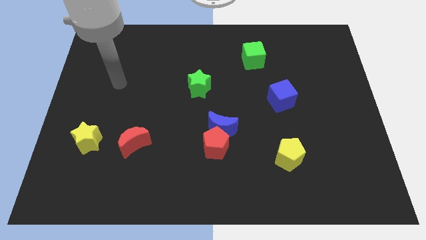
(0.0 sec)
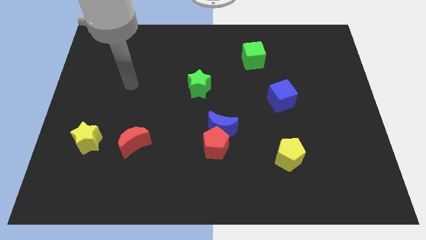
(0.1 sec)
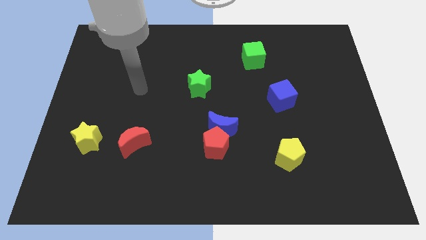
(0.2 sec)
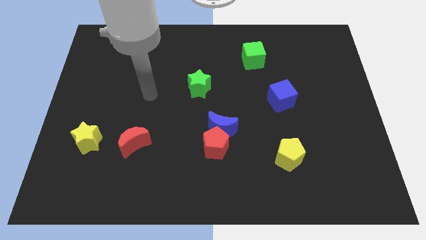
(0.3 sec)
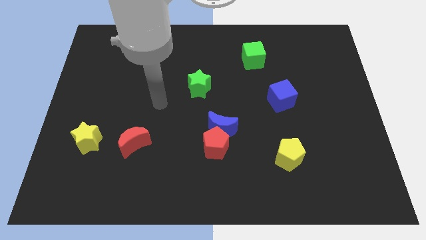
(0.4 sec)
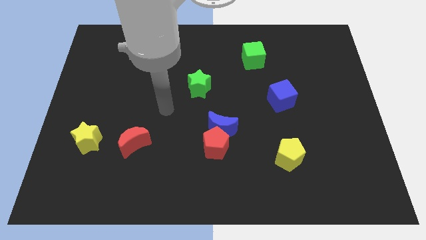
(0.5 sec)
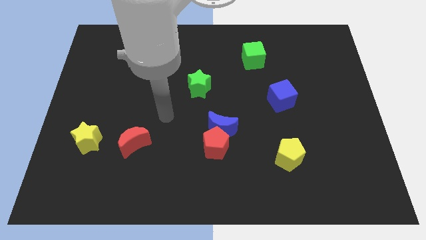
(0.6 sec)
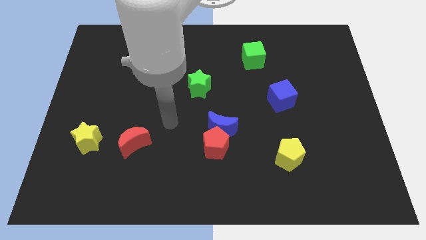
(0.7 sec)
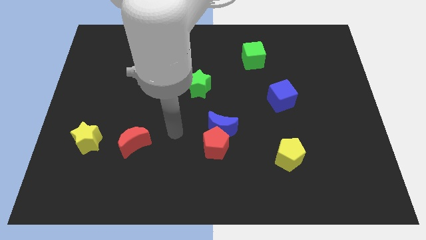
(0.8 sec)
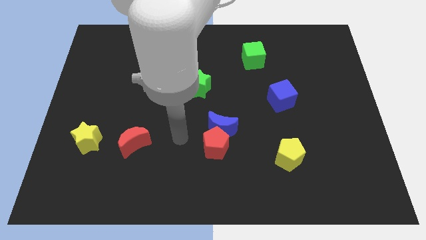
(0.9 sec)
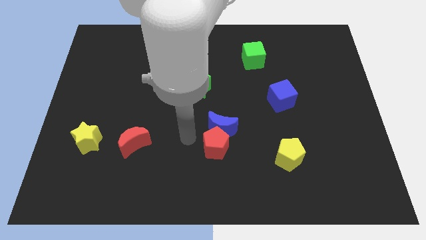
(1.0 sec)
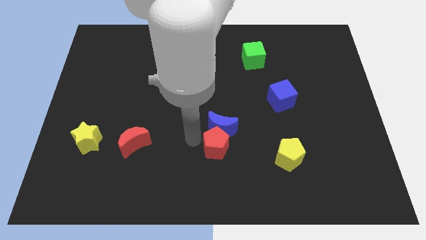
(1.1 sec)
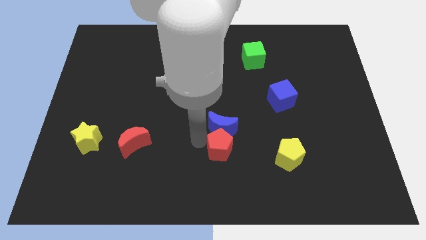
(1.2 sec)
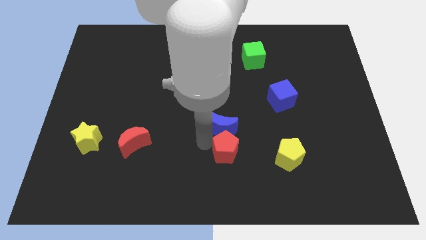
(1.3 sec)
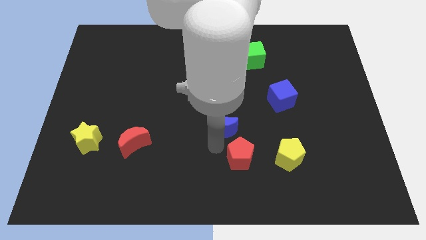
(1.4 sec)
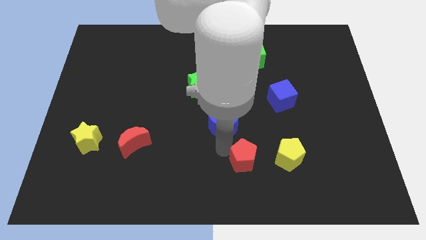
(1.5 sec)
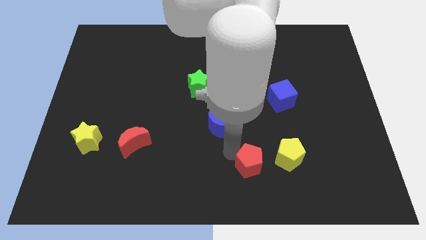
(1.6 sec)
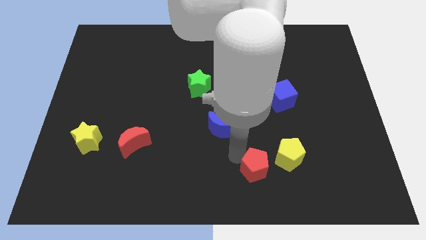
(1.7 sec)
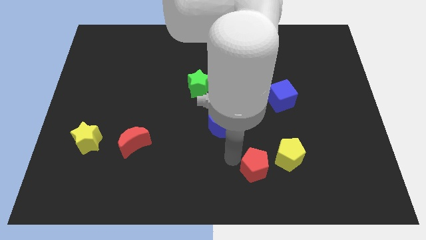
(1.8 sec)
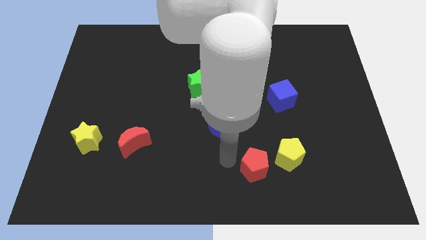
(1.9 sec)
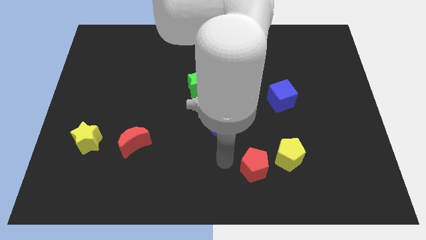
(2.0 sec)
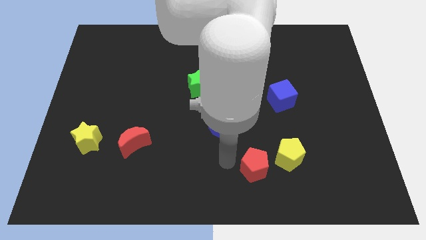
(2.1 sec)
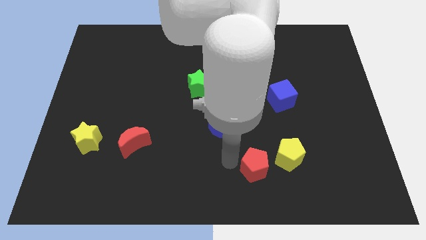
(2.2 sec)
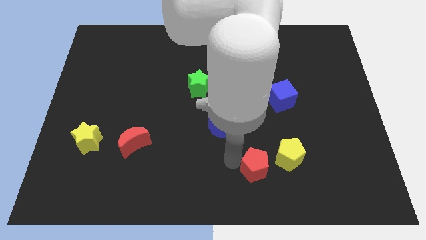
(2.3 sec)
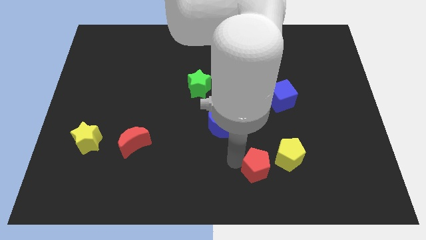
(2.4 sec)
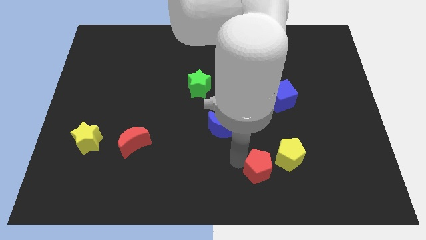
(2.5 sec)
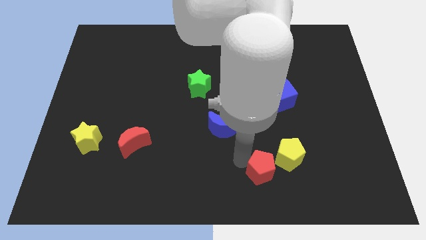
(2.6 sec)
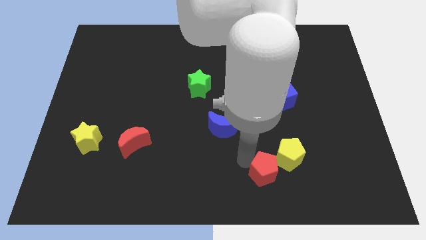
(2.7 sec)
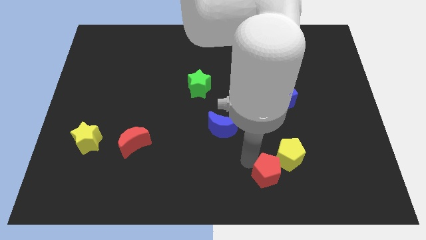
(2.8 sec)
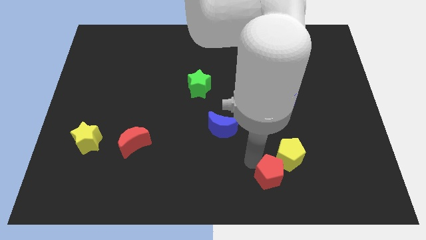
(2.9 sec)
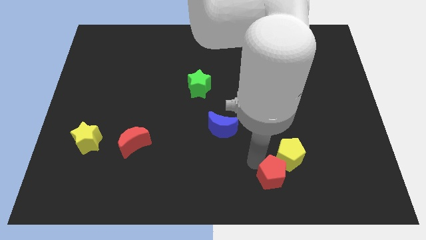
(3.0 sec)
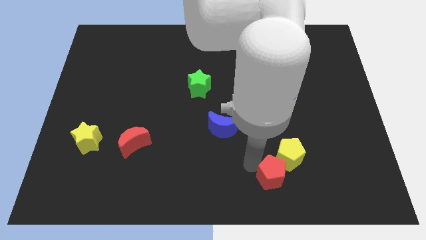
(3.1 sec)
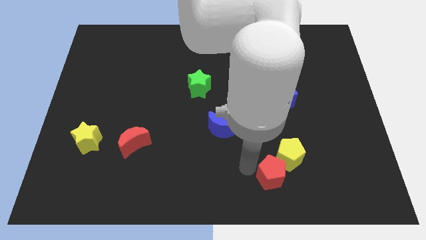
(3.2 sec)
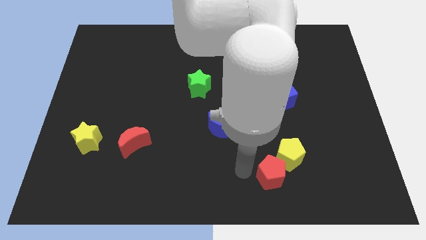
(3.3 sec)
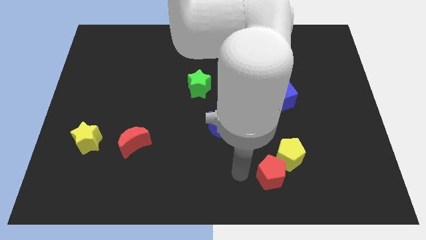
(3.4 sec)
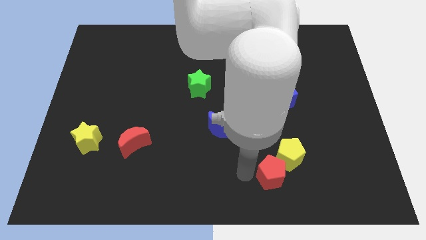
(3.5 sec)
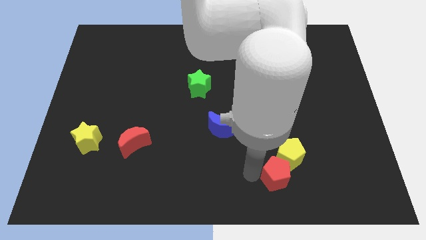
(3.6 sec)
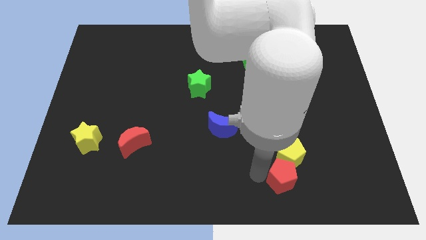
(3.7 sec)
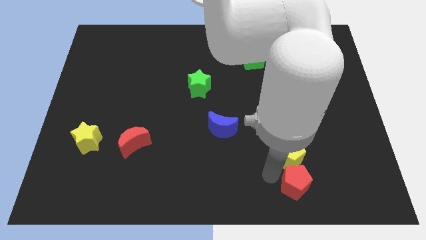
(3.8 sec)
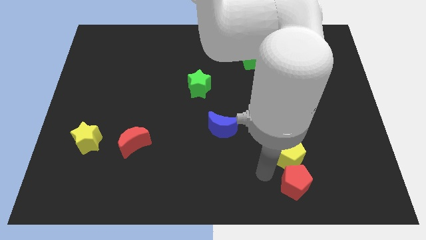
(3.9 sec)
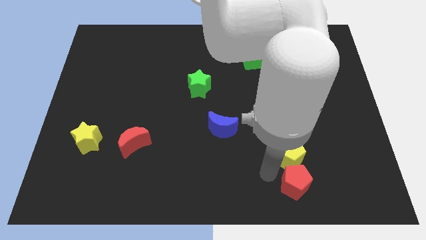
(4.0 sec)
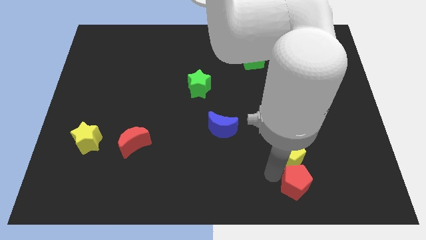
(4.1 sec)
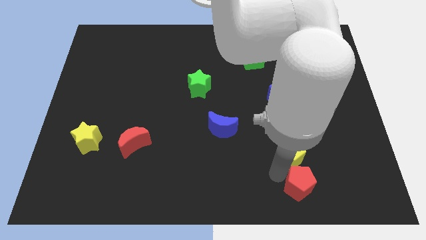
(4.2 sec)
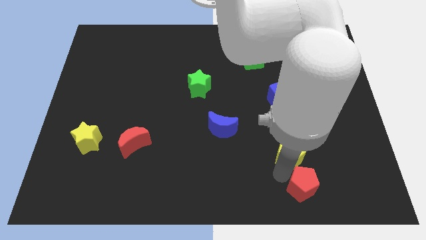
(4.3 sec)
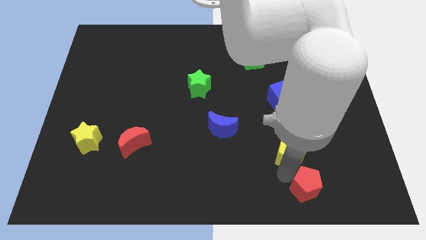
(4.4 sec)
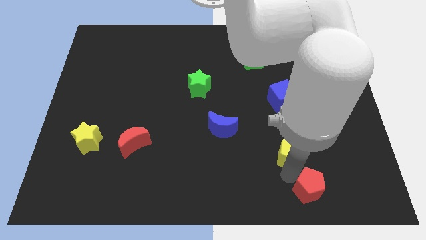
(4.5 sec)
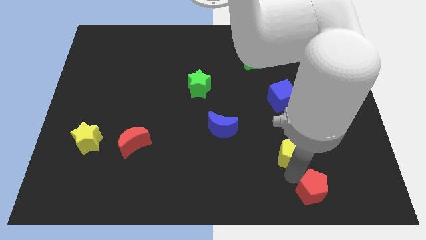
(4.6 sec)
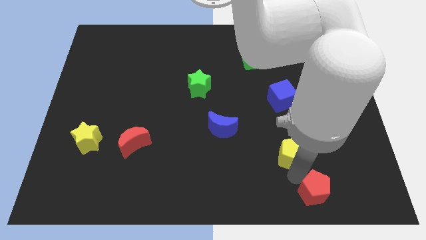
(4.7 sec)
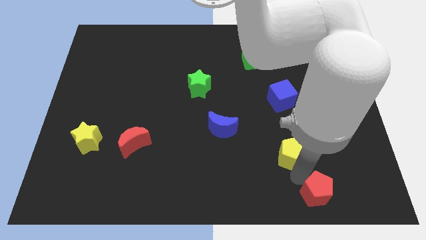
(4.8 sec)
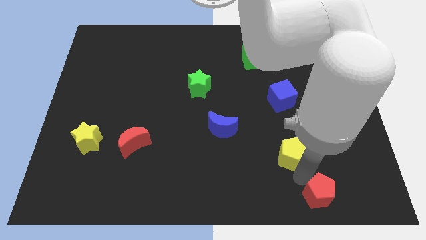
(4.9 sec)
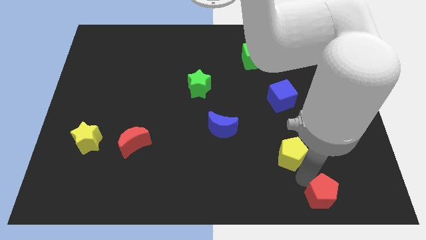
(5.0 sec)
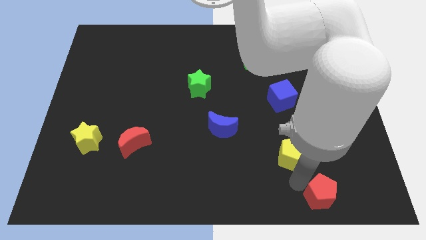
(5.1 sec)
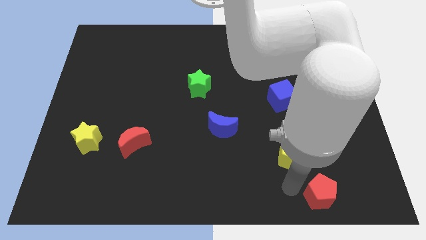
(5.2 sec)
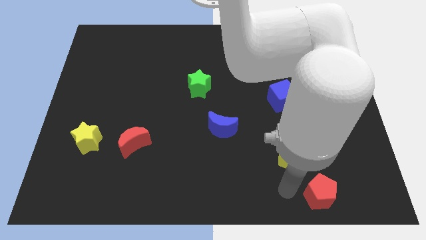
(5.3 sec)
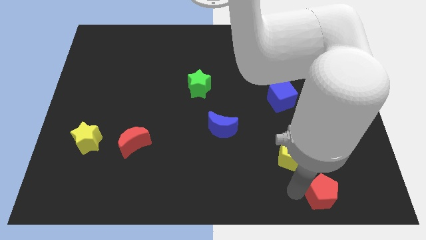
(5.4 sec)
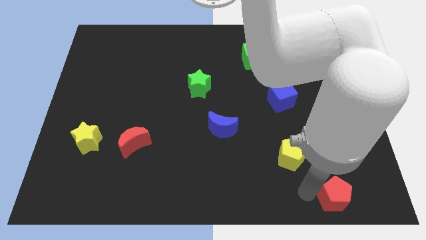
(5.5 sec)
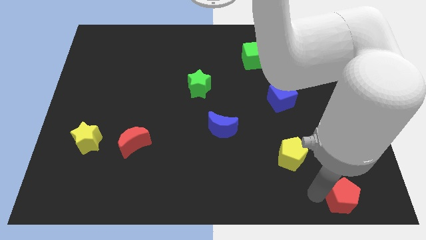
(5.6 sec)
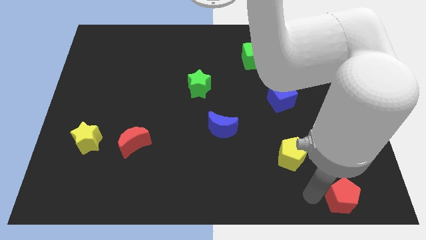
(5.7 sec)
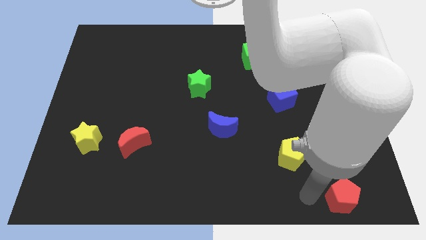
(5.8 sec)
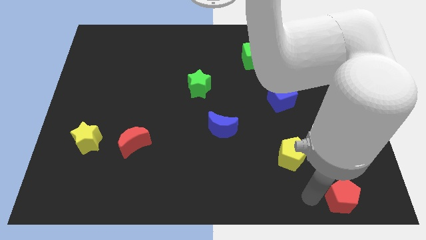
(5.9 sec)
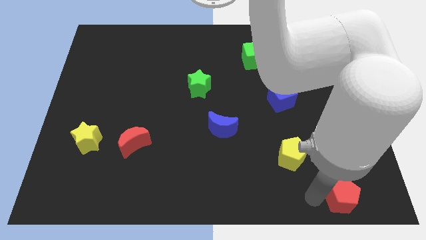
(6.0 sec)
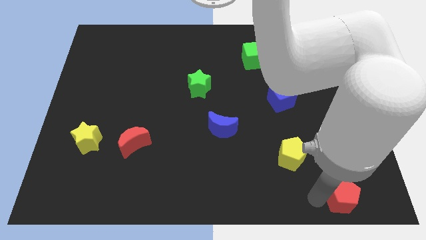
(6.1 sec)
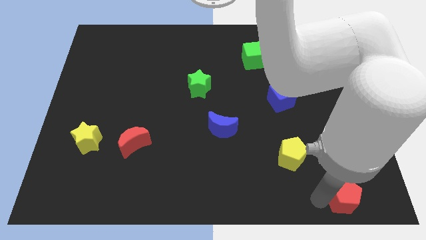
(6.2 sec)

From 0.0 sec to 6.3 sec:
slide the red pentagon to the bottom right

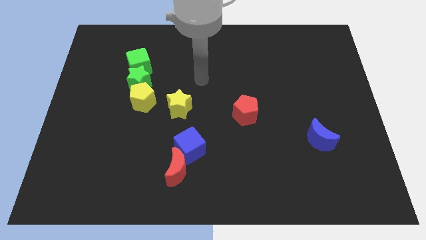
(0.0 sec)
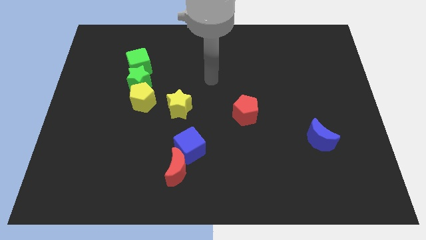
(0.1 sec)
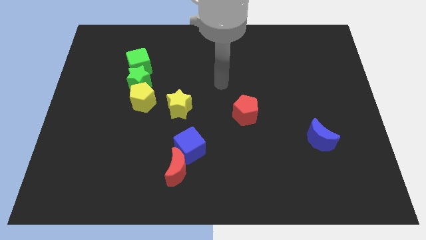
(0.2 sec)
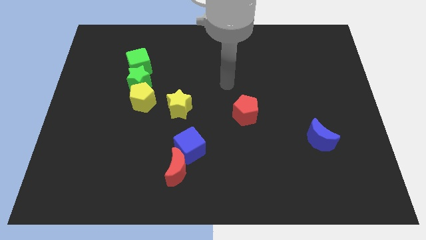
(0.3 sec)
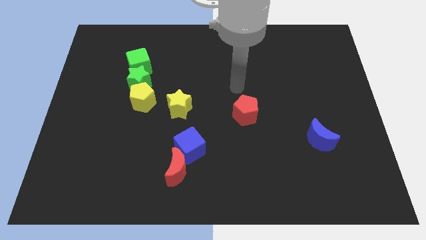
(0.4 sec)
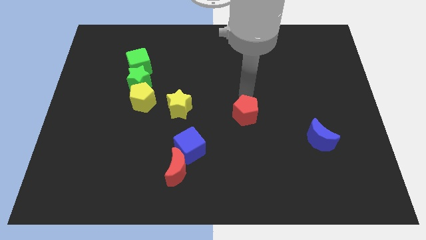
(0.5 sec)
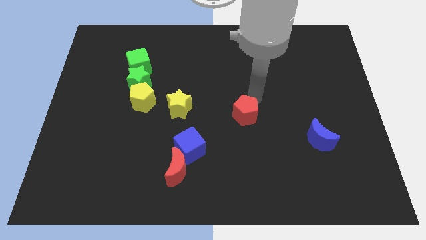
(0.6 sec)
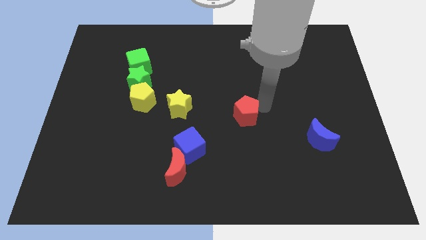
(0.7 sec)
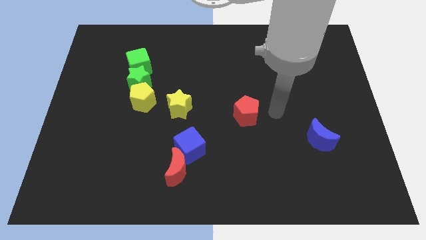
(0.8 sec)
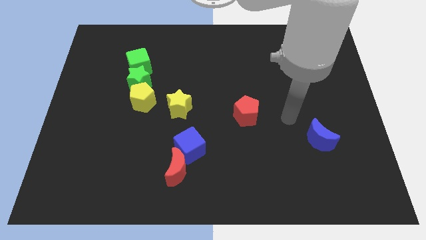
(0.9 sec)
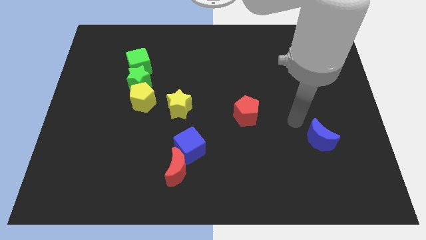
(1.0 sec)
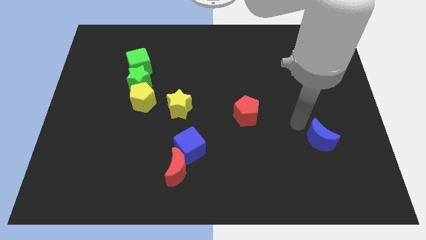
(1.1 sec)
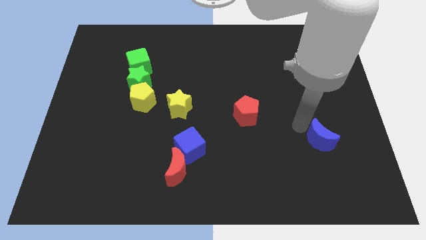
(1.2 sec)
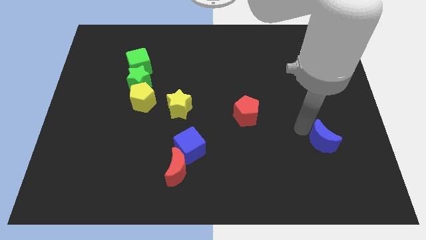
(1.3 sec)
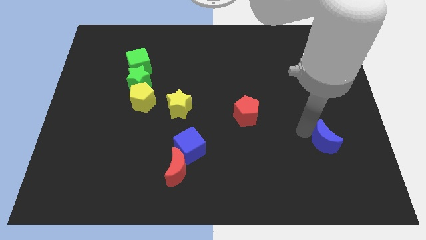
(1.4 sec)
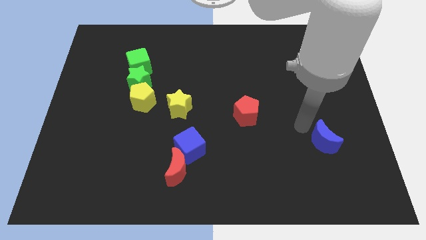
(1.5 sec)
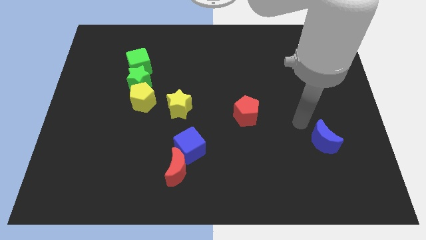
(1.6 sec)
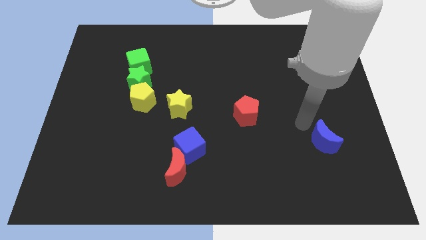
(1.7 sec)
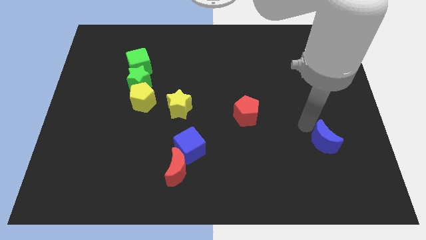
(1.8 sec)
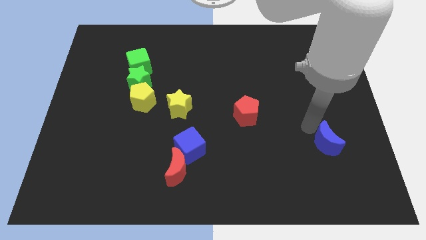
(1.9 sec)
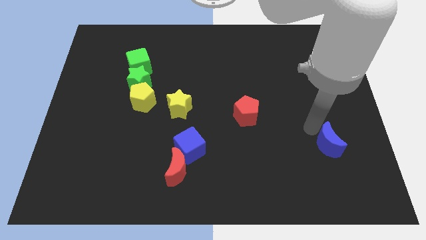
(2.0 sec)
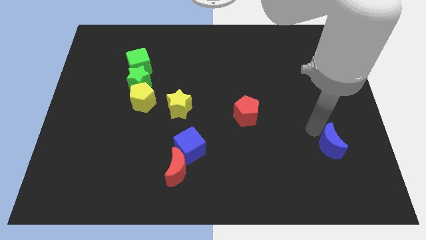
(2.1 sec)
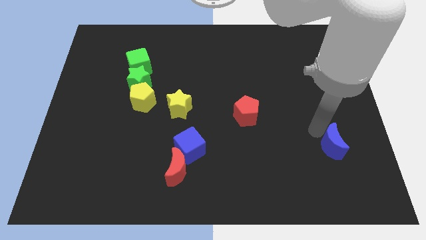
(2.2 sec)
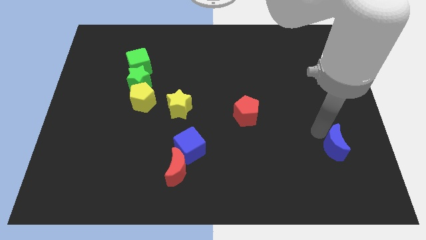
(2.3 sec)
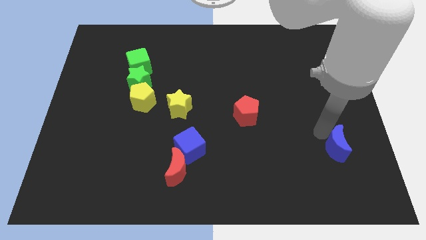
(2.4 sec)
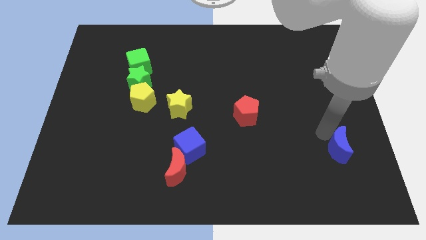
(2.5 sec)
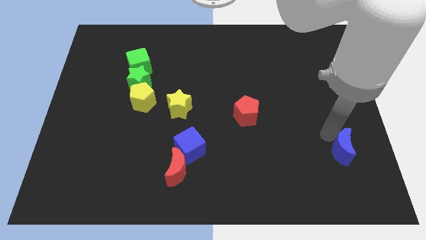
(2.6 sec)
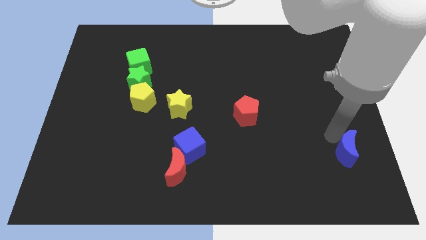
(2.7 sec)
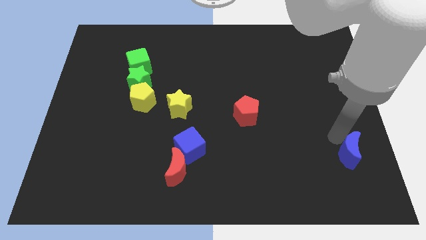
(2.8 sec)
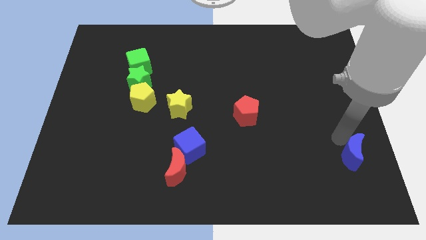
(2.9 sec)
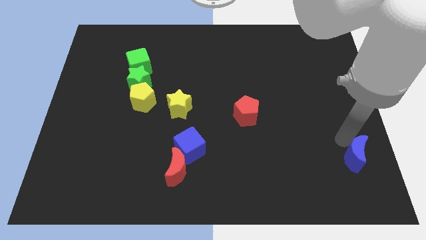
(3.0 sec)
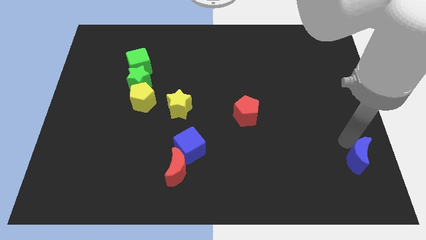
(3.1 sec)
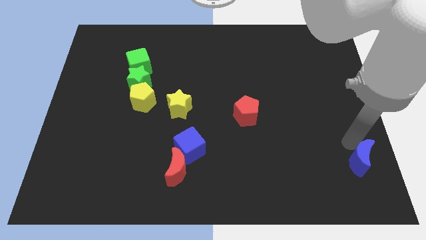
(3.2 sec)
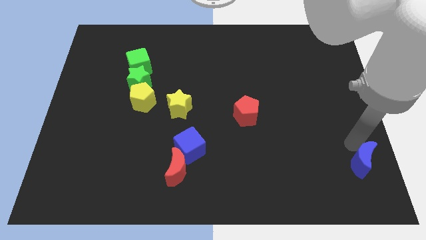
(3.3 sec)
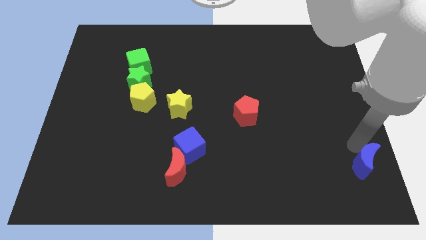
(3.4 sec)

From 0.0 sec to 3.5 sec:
slide the blue moon to the bottom right corner
